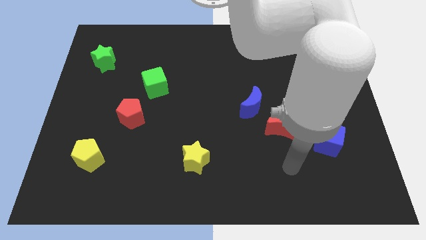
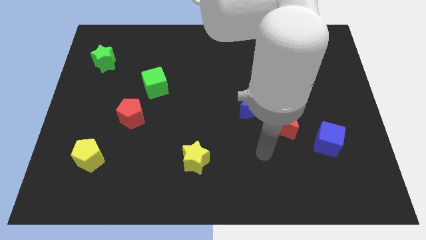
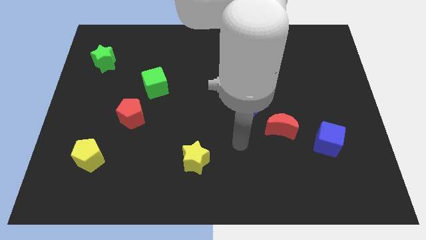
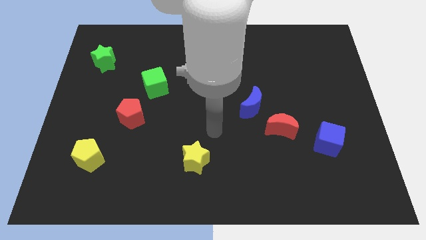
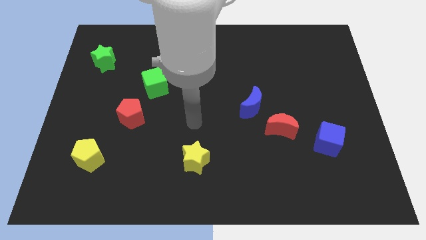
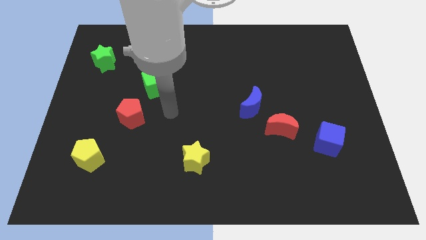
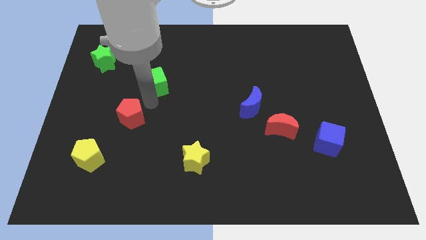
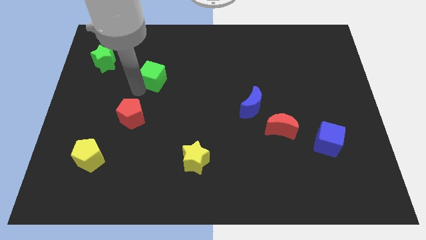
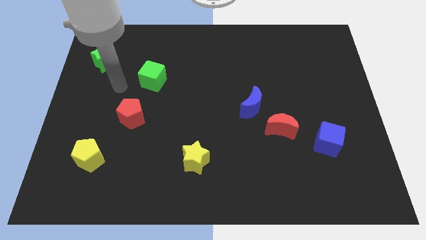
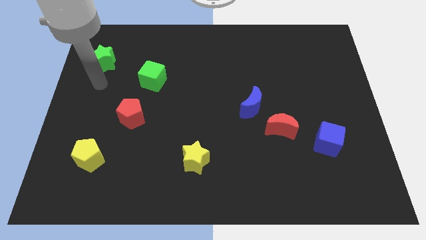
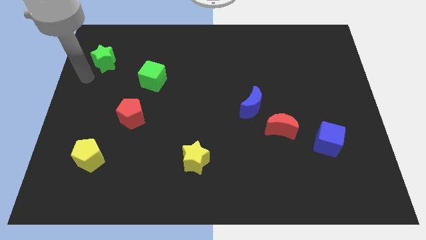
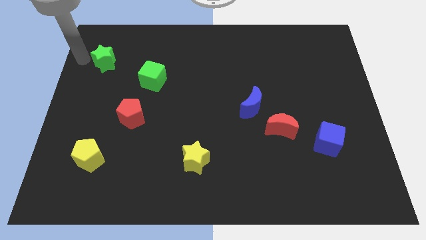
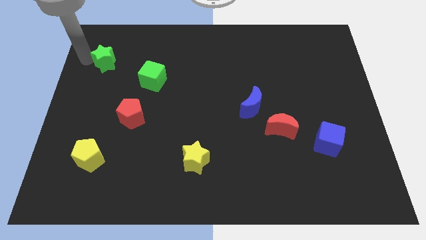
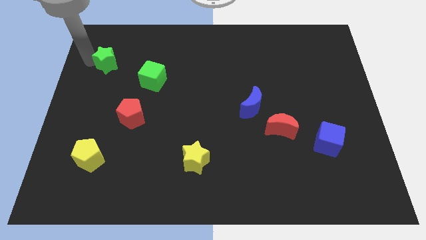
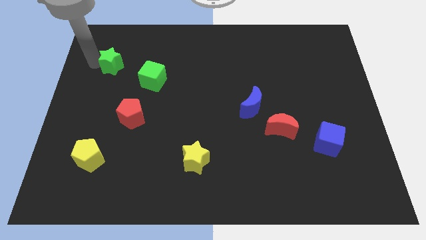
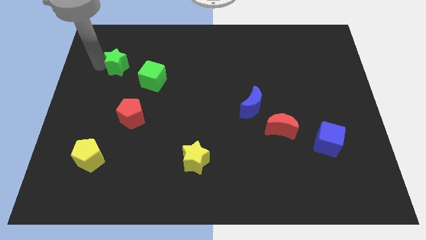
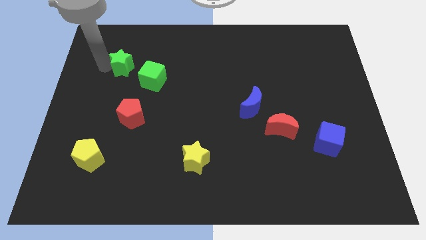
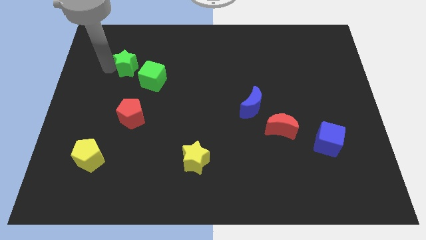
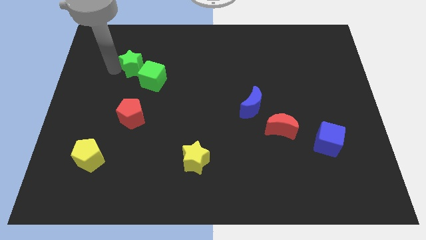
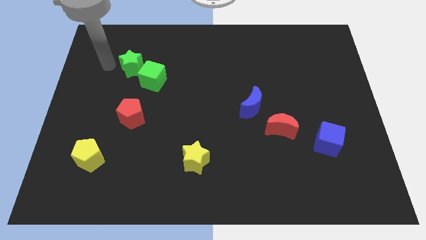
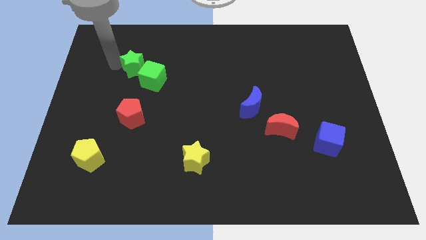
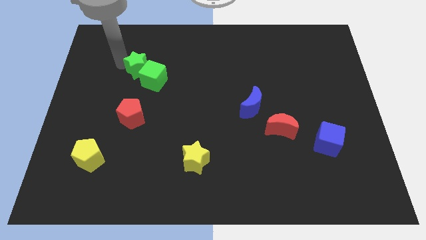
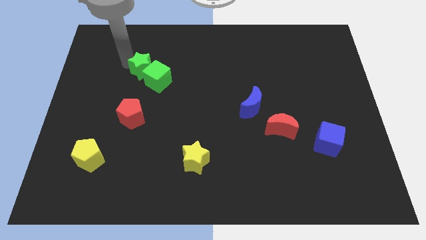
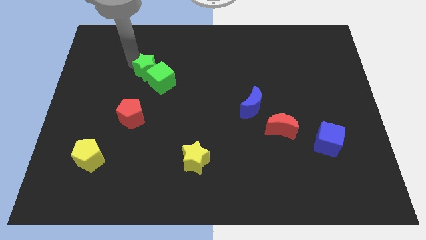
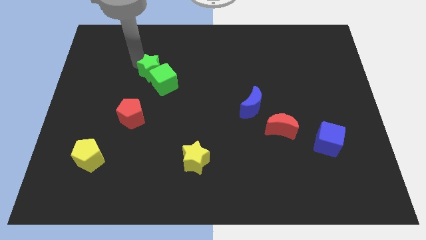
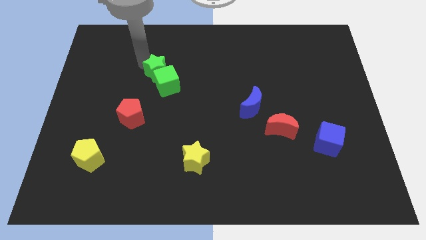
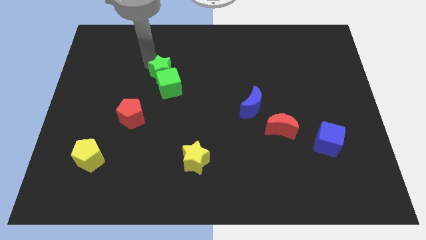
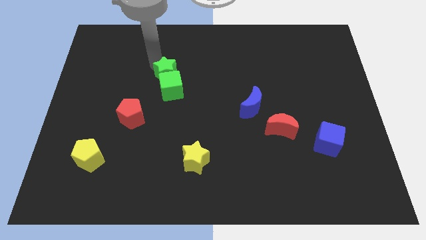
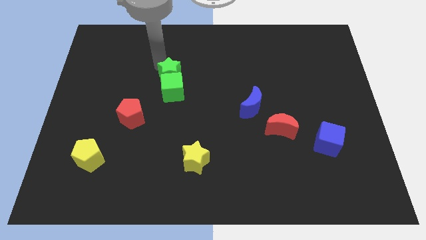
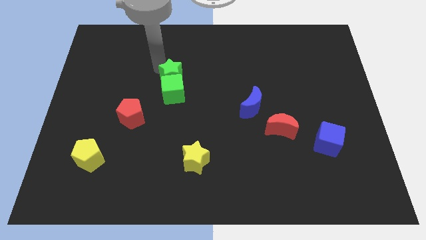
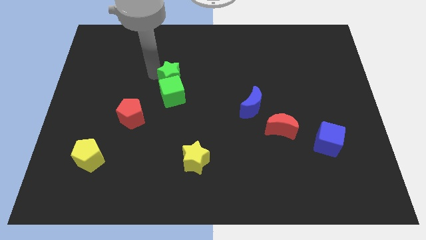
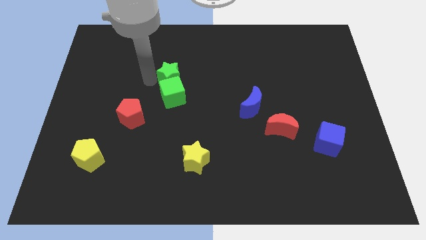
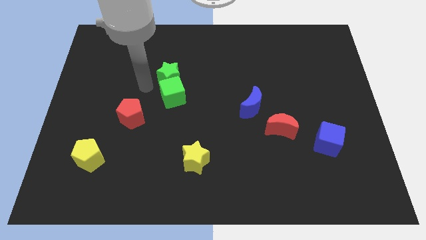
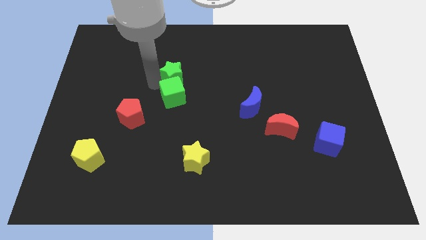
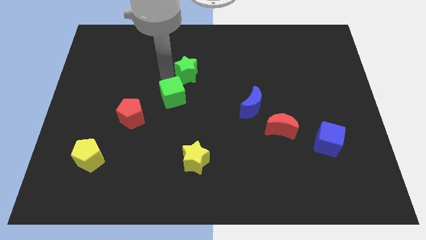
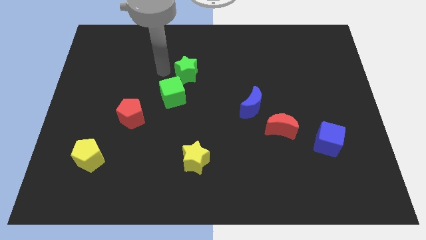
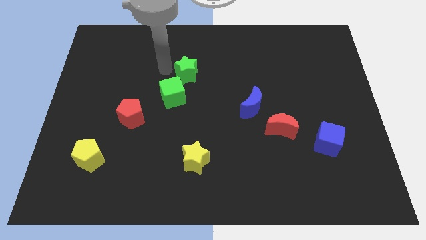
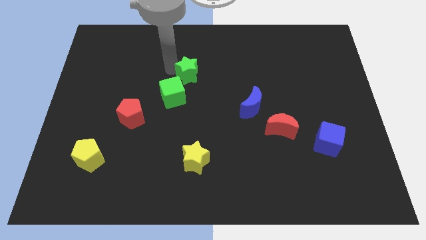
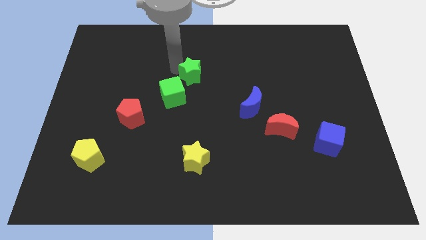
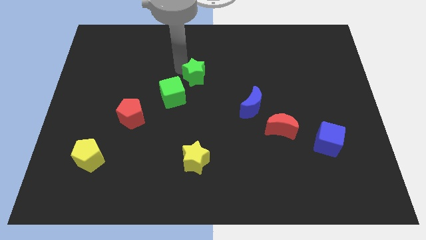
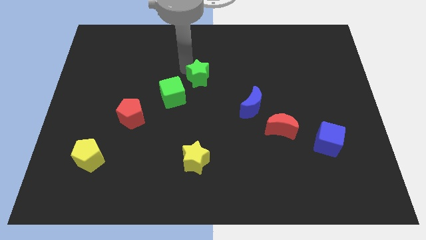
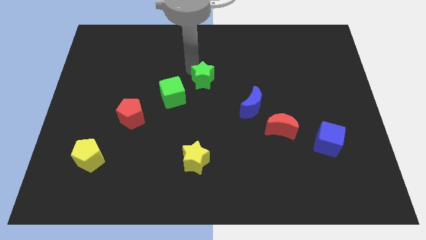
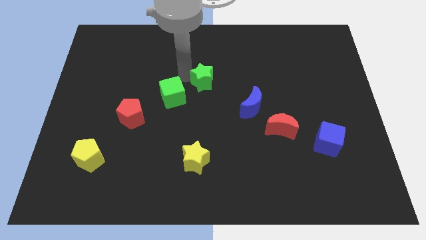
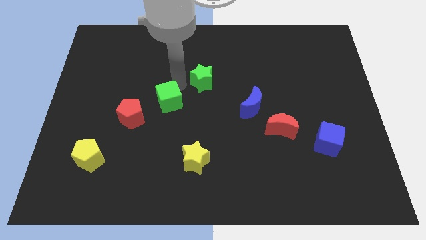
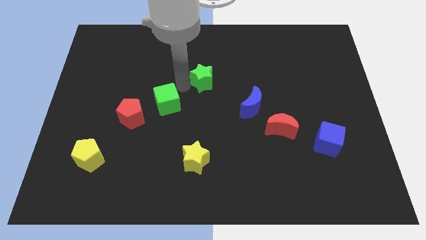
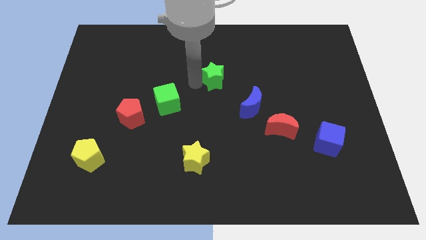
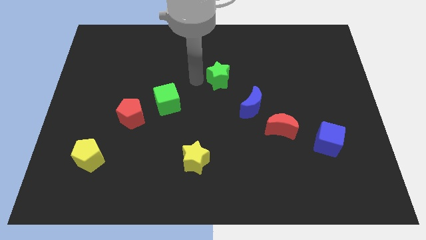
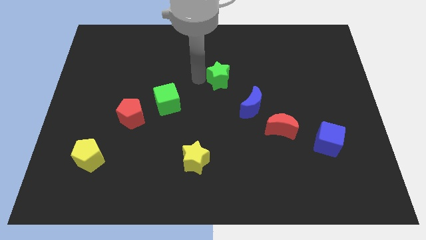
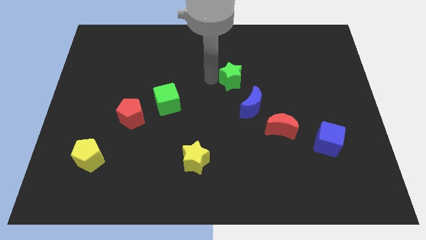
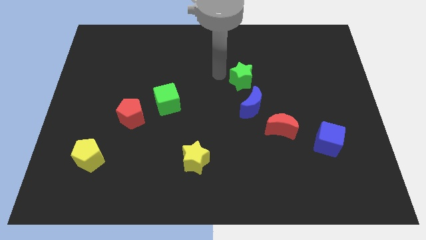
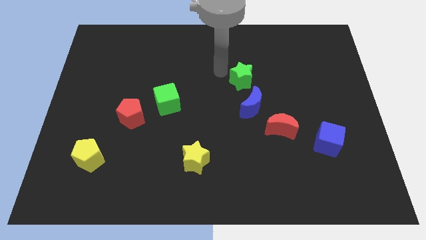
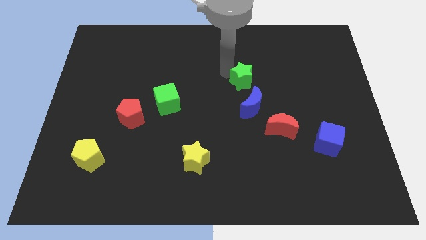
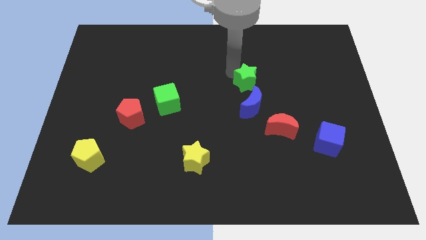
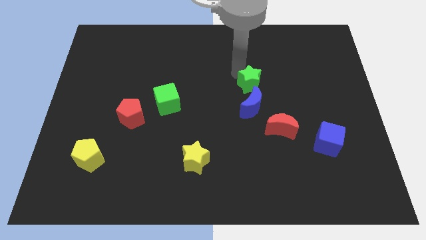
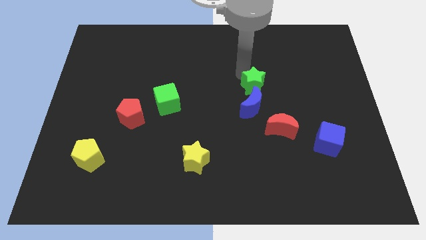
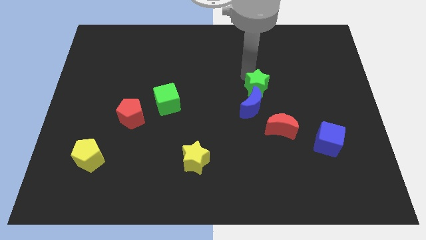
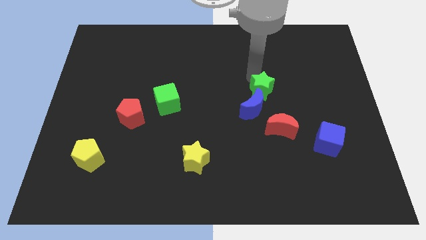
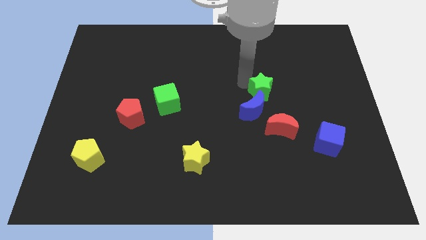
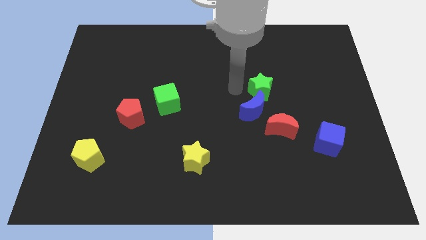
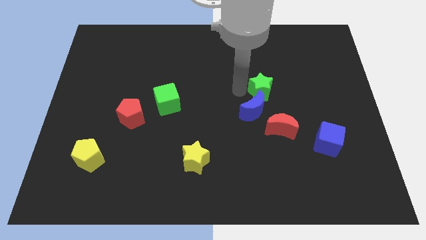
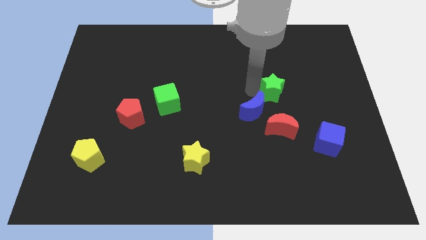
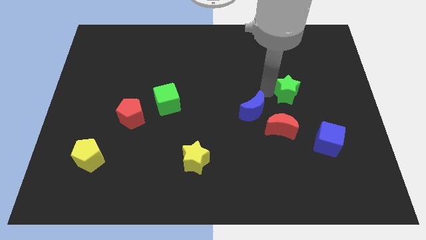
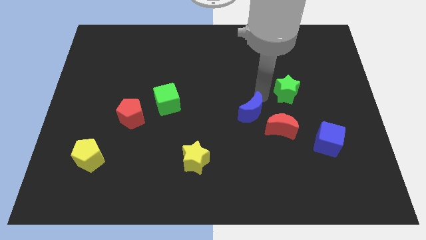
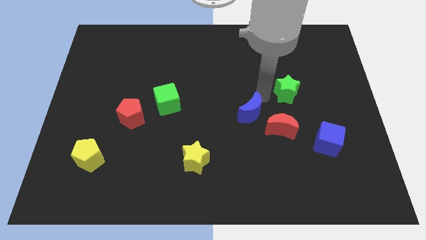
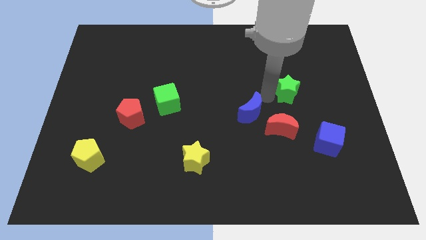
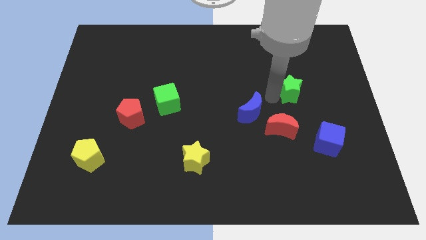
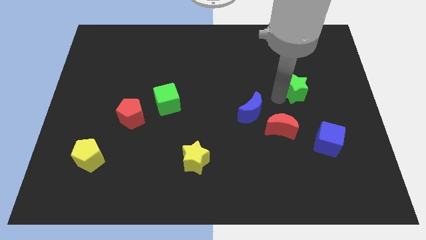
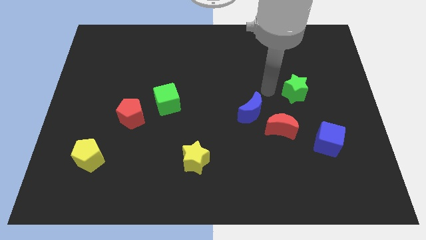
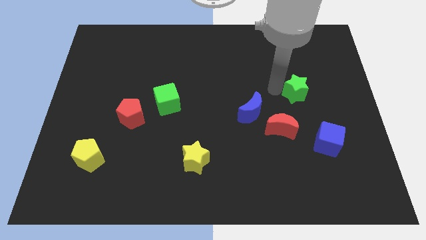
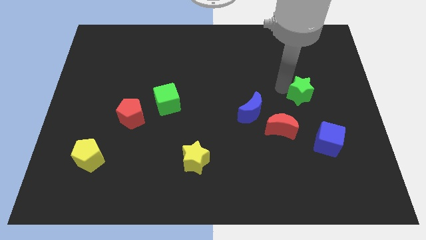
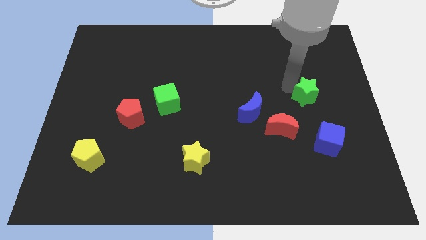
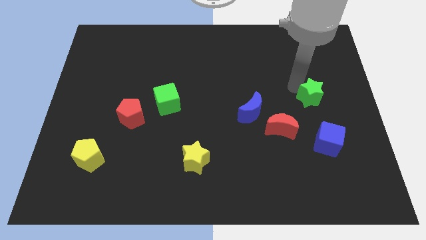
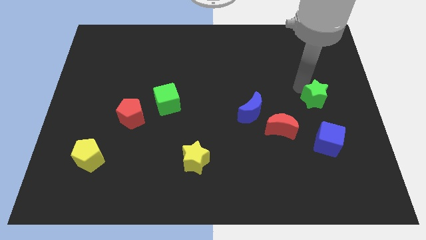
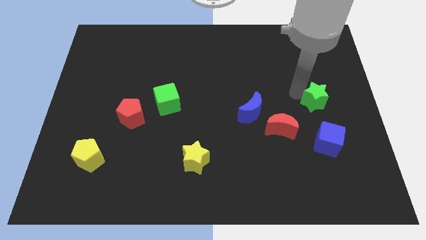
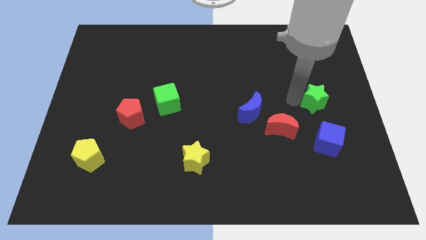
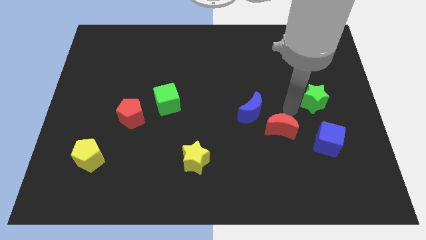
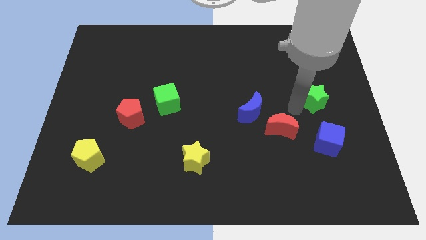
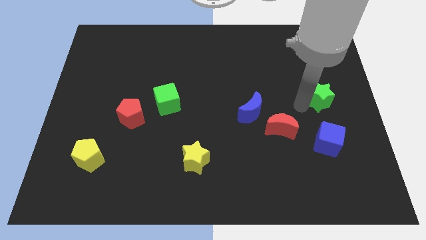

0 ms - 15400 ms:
put the green star to the center right
